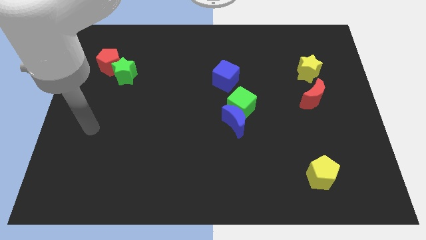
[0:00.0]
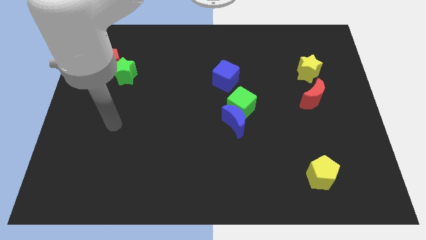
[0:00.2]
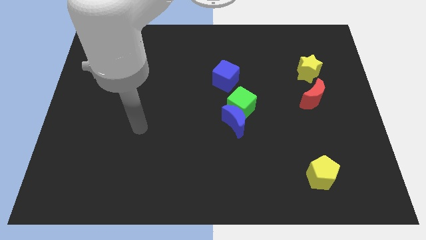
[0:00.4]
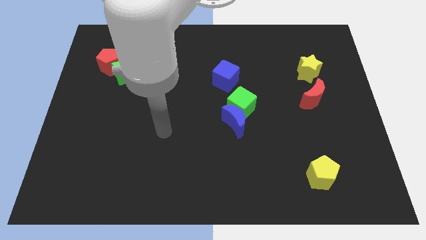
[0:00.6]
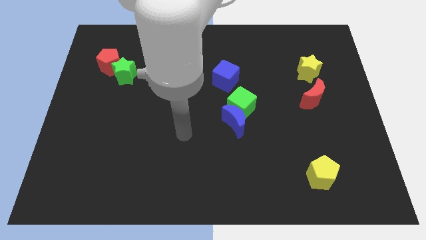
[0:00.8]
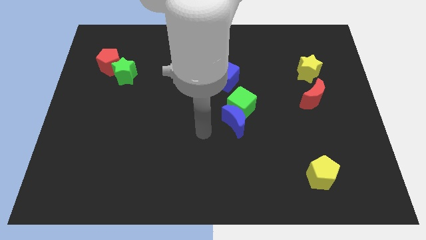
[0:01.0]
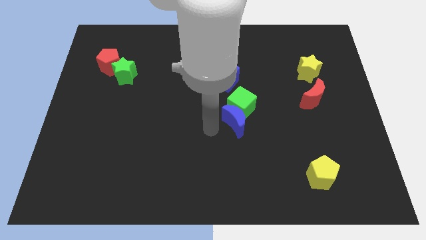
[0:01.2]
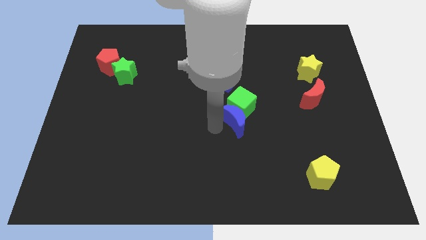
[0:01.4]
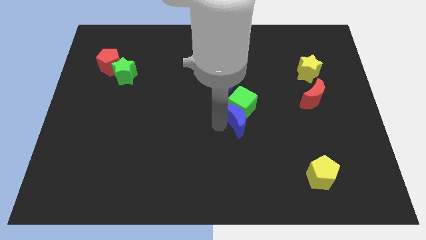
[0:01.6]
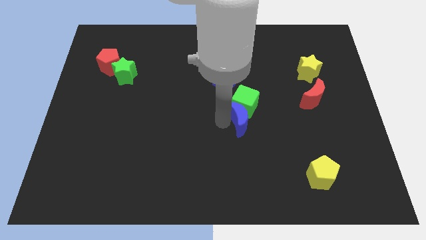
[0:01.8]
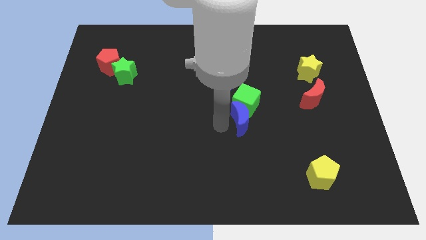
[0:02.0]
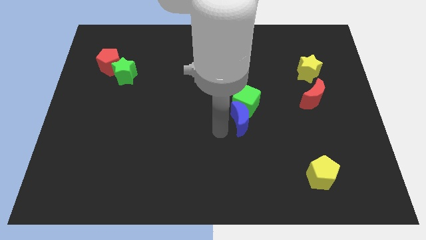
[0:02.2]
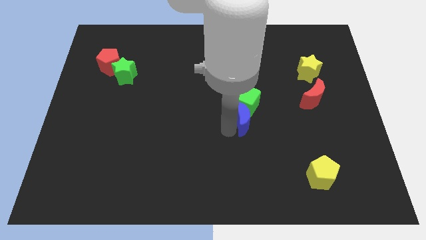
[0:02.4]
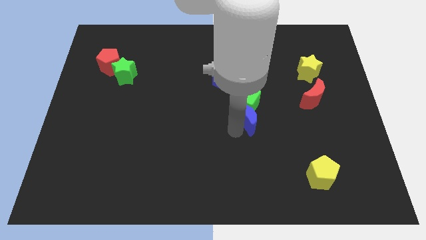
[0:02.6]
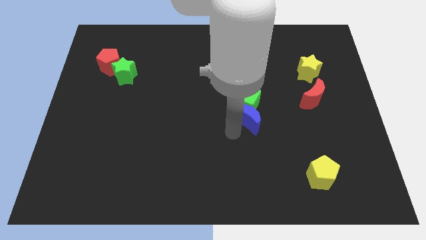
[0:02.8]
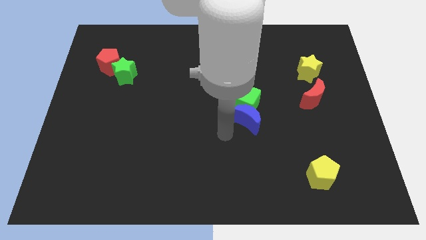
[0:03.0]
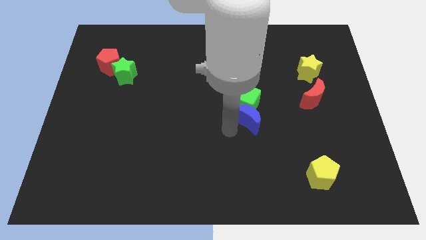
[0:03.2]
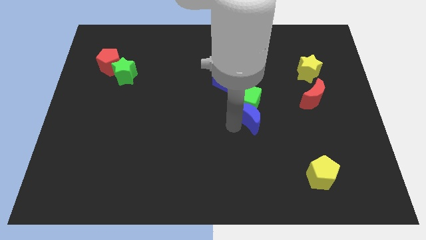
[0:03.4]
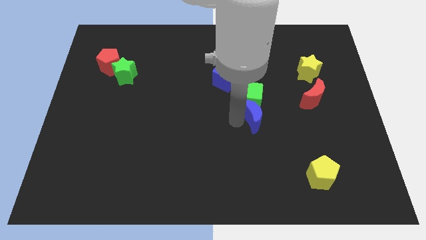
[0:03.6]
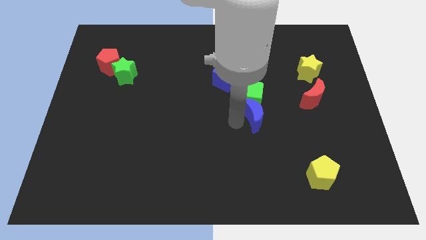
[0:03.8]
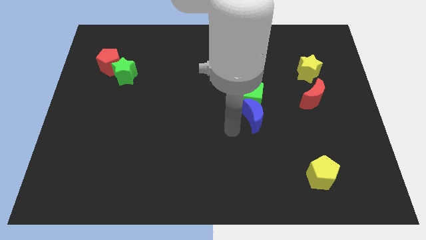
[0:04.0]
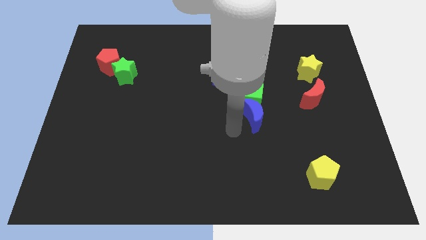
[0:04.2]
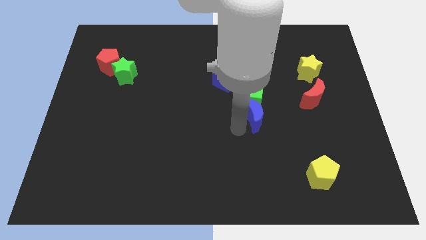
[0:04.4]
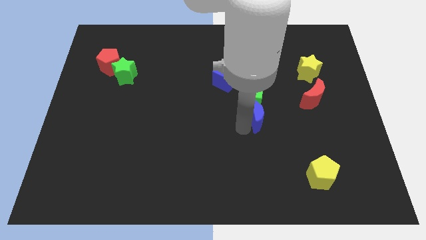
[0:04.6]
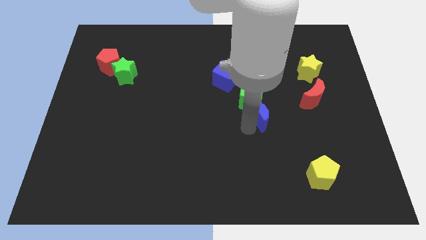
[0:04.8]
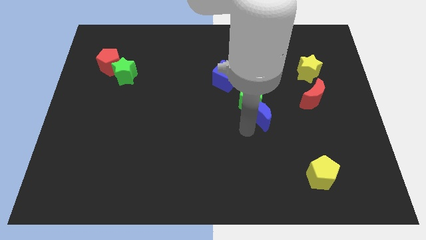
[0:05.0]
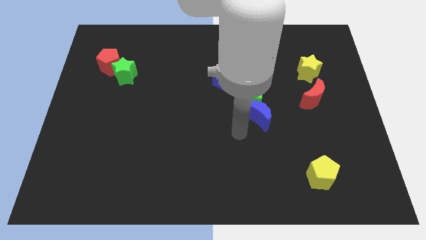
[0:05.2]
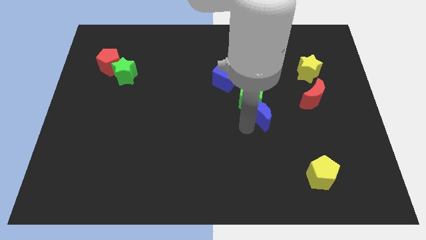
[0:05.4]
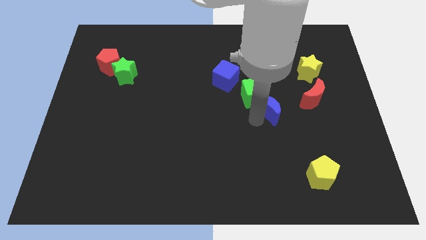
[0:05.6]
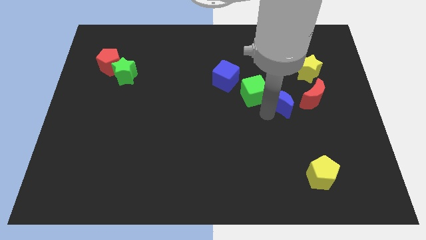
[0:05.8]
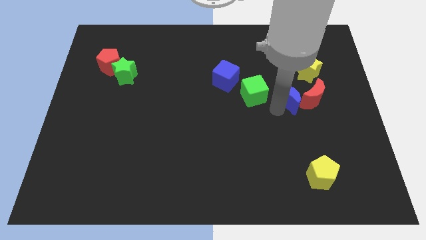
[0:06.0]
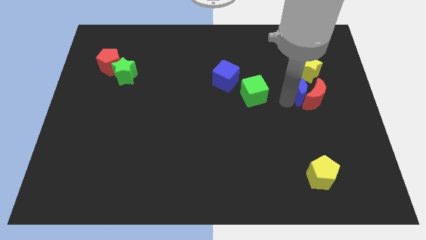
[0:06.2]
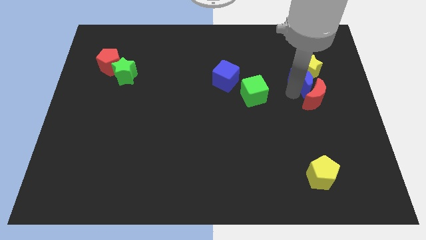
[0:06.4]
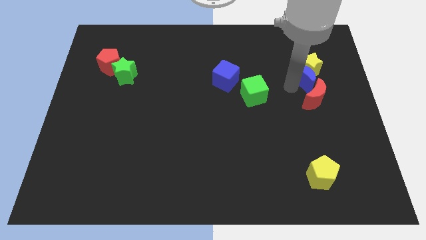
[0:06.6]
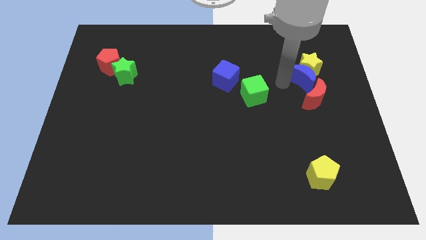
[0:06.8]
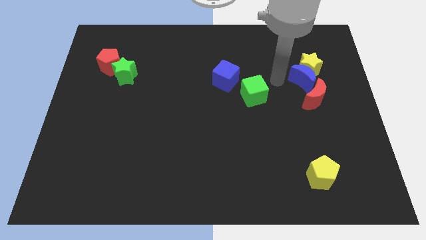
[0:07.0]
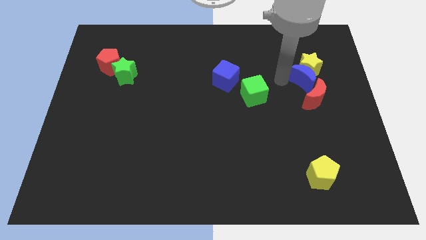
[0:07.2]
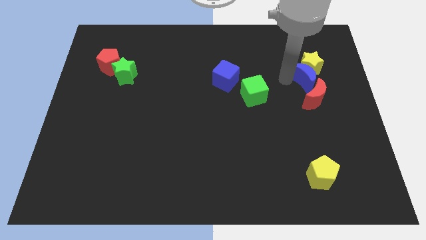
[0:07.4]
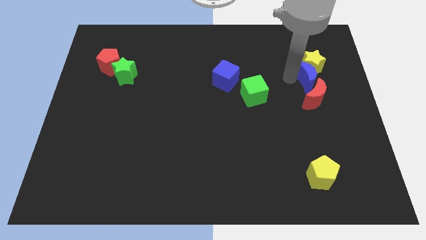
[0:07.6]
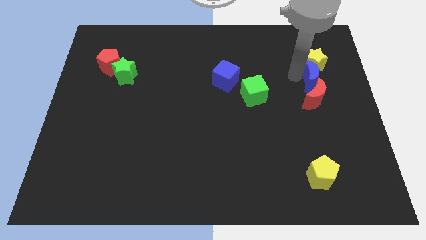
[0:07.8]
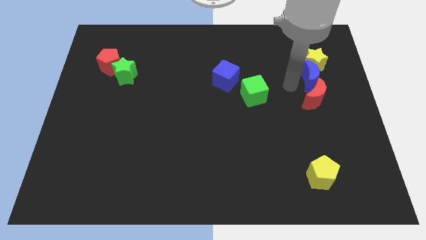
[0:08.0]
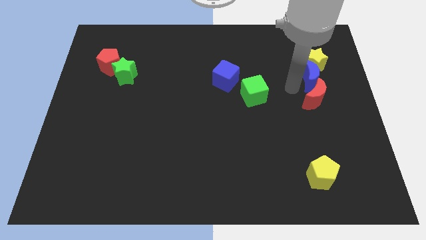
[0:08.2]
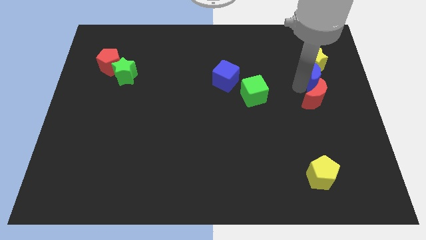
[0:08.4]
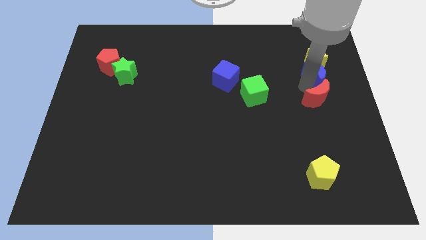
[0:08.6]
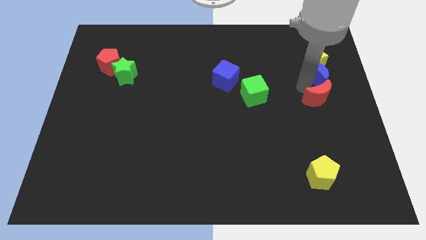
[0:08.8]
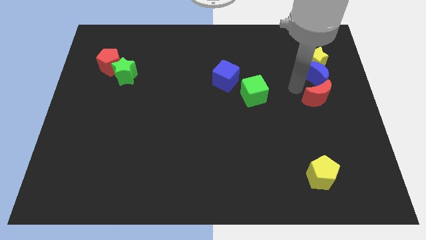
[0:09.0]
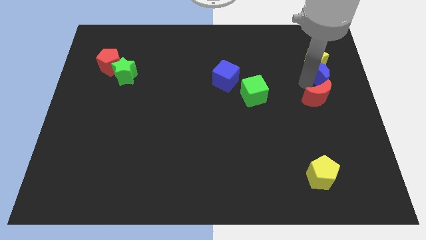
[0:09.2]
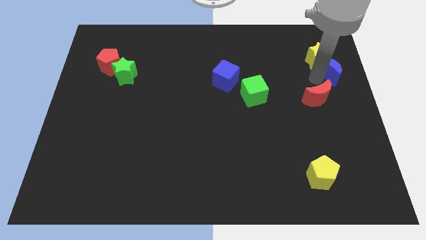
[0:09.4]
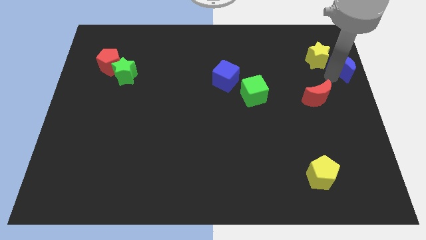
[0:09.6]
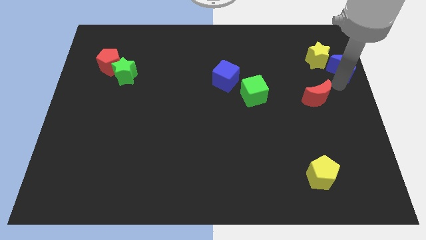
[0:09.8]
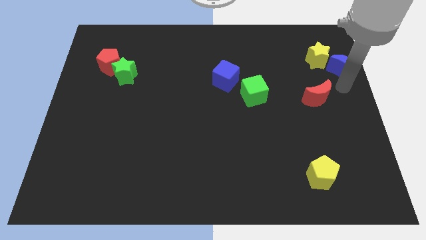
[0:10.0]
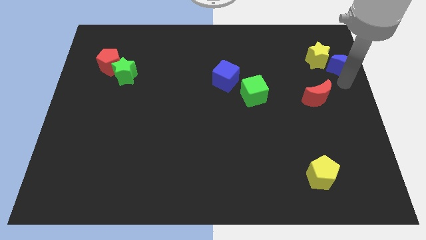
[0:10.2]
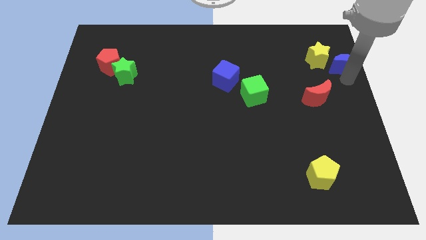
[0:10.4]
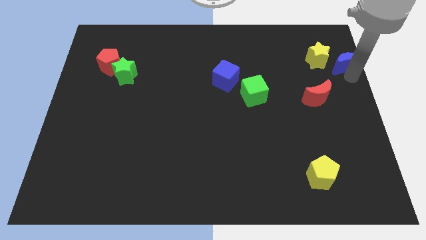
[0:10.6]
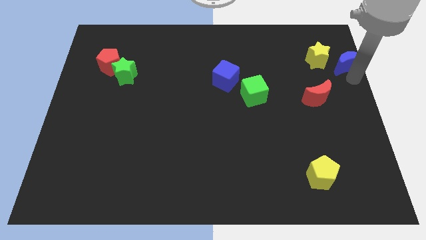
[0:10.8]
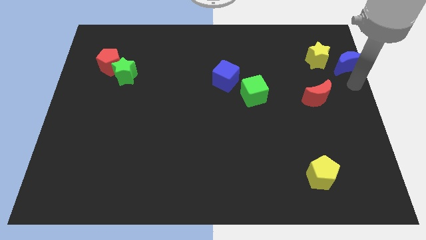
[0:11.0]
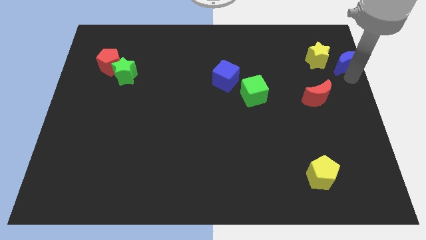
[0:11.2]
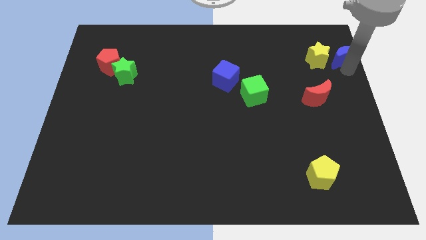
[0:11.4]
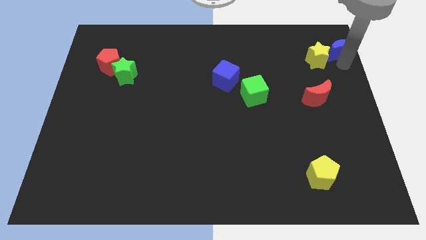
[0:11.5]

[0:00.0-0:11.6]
push the blue moon to the upper right corner

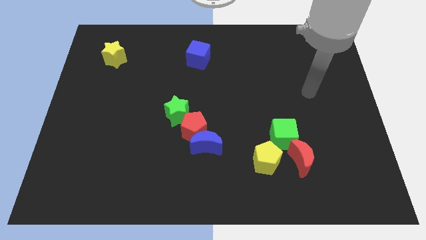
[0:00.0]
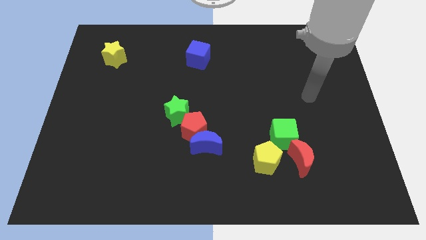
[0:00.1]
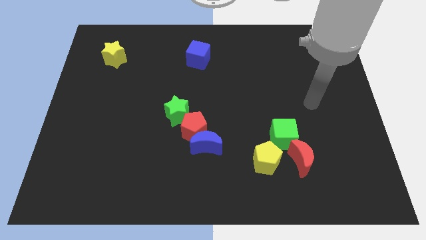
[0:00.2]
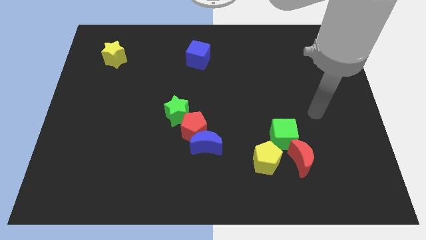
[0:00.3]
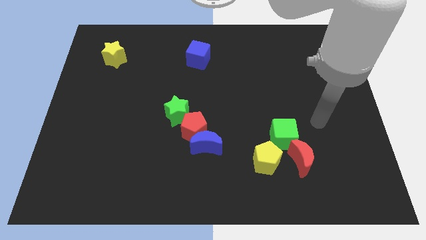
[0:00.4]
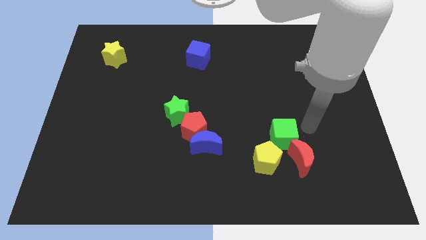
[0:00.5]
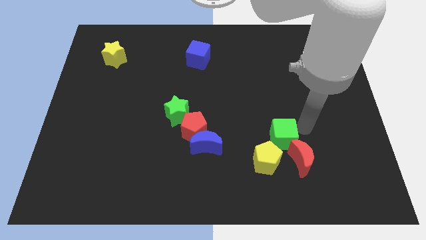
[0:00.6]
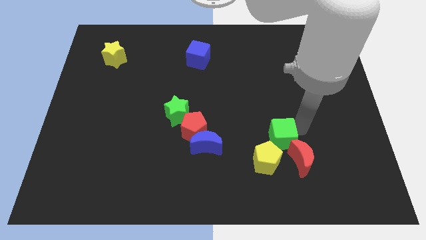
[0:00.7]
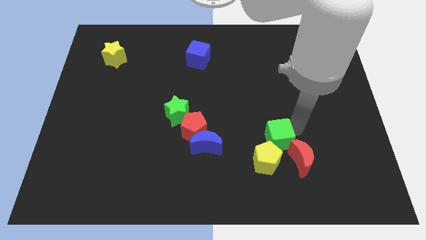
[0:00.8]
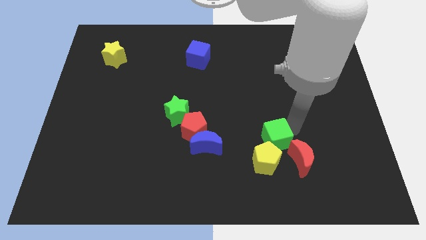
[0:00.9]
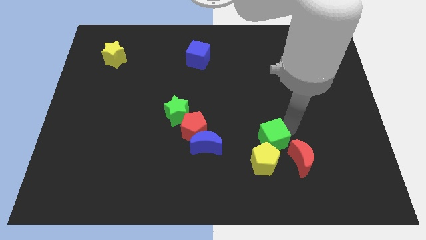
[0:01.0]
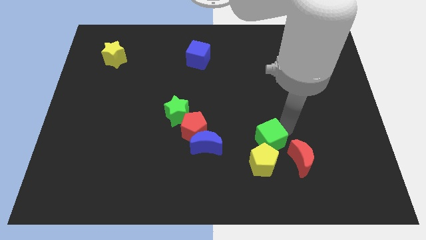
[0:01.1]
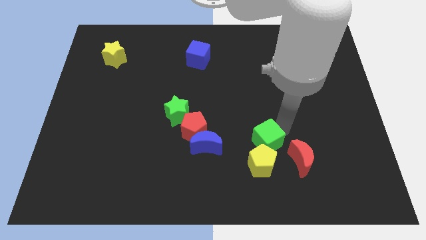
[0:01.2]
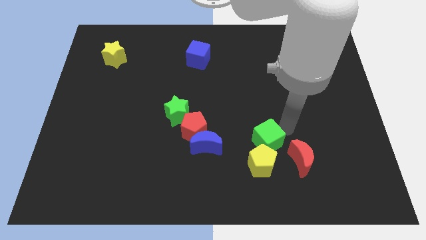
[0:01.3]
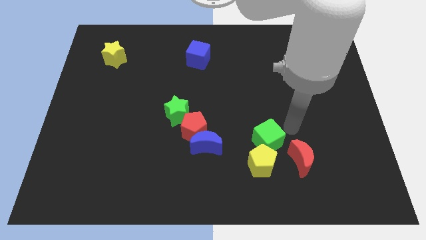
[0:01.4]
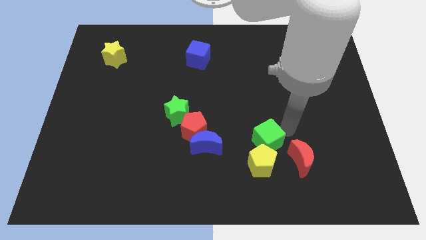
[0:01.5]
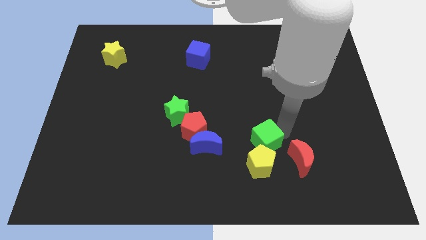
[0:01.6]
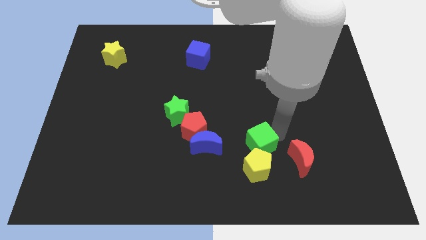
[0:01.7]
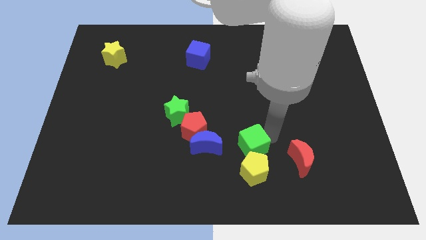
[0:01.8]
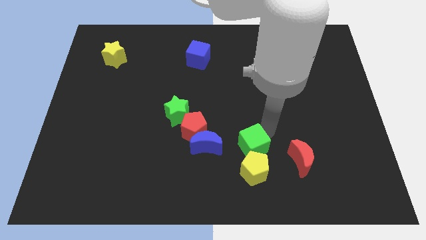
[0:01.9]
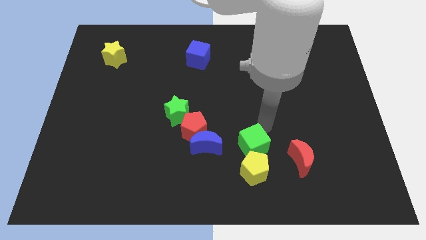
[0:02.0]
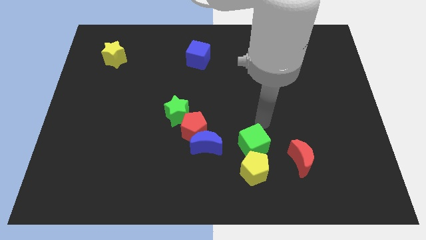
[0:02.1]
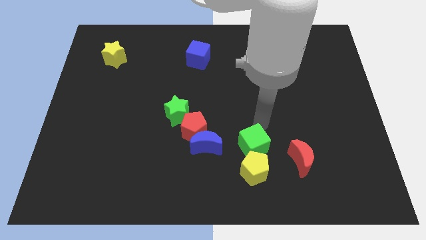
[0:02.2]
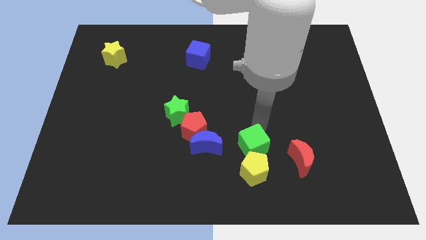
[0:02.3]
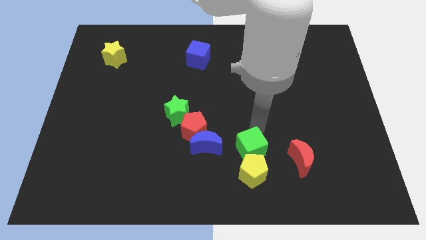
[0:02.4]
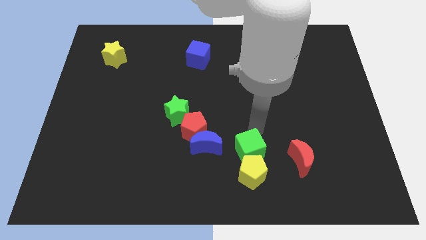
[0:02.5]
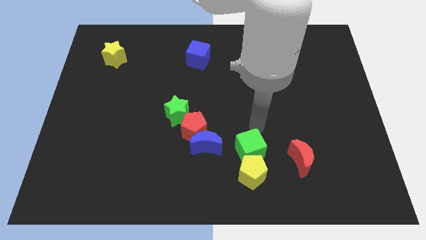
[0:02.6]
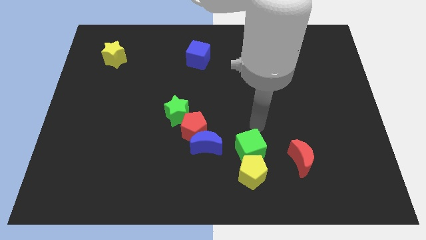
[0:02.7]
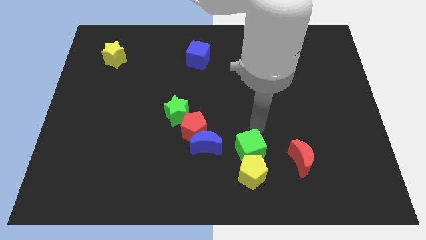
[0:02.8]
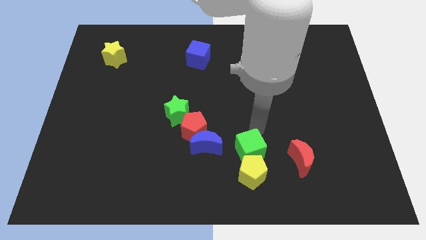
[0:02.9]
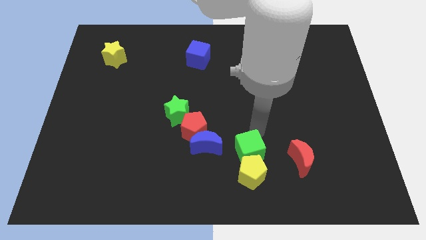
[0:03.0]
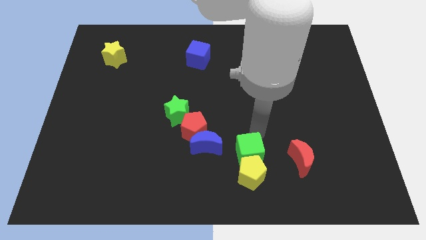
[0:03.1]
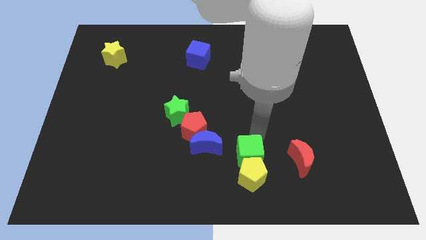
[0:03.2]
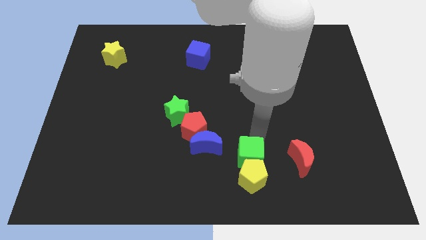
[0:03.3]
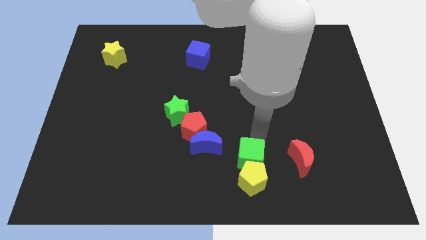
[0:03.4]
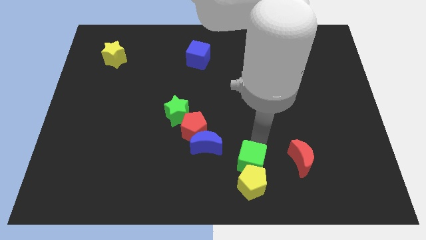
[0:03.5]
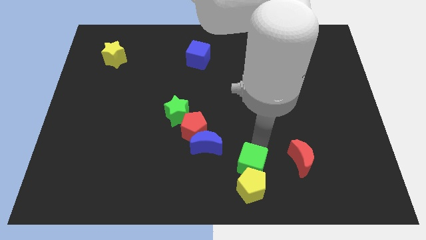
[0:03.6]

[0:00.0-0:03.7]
put the green cube to the bottom side
